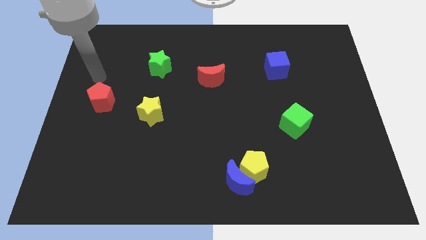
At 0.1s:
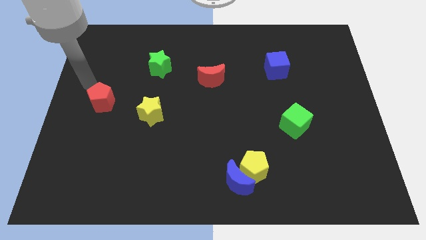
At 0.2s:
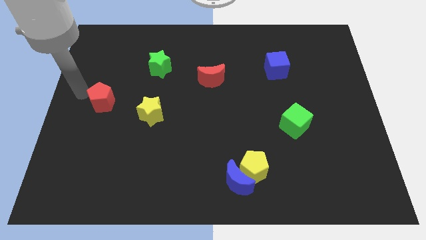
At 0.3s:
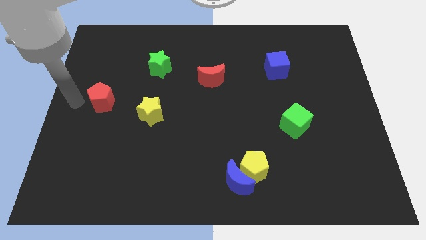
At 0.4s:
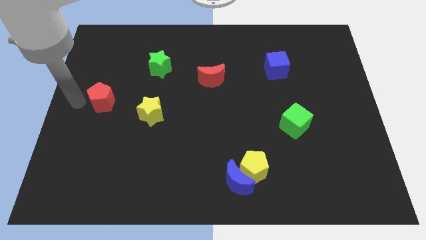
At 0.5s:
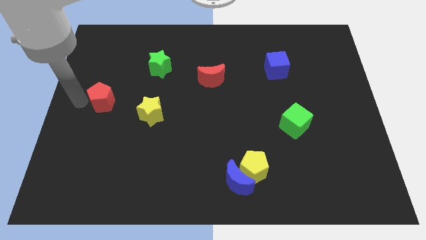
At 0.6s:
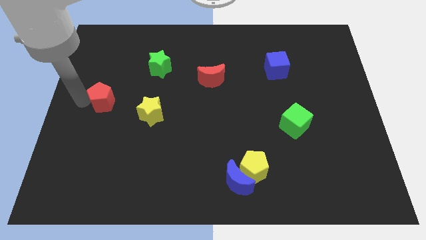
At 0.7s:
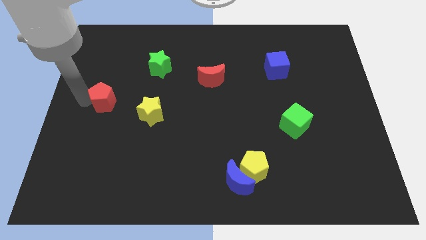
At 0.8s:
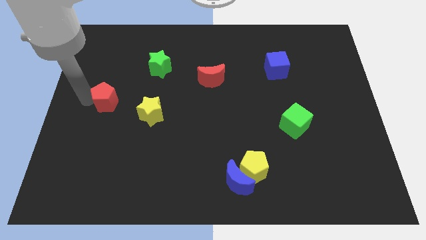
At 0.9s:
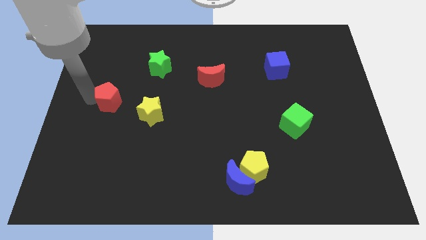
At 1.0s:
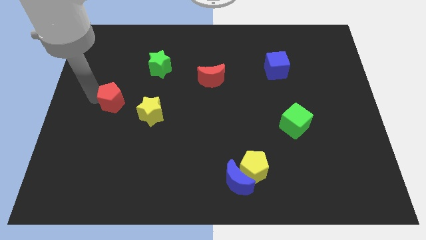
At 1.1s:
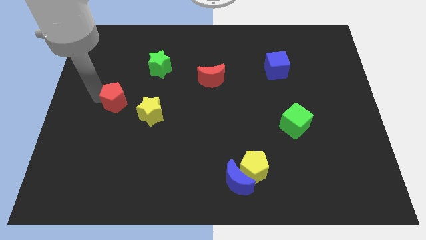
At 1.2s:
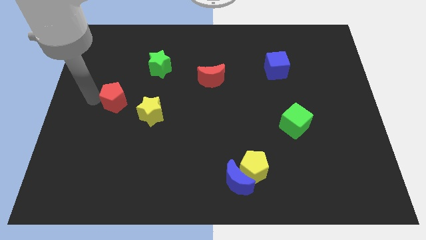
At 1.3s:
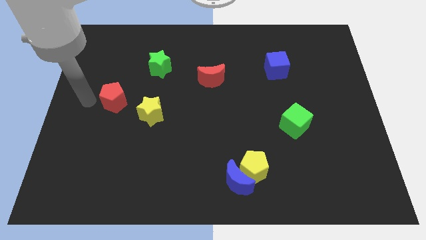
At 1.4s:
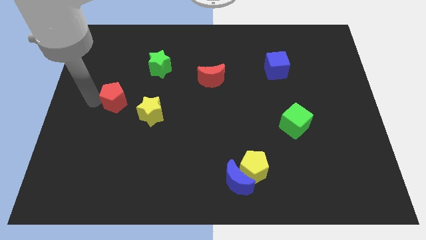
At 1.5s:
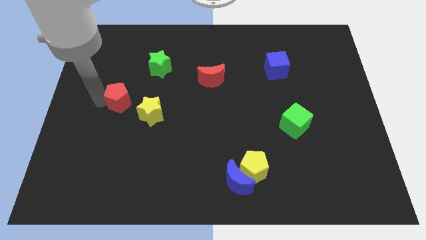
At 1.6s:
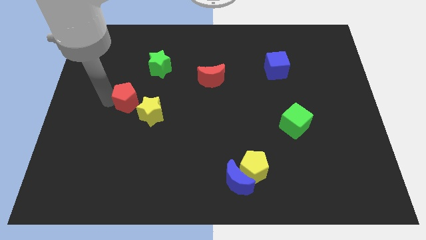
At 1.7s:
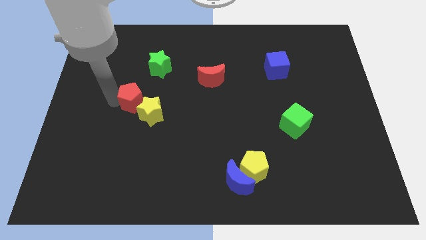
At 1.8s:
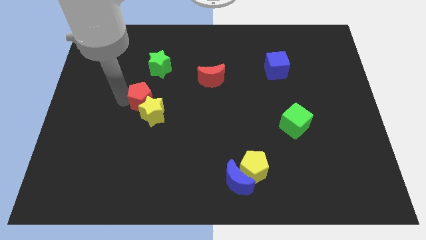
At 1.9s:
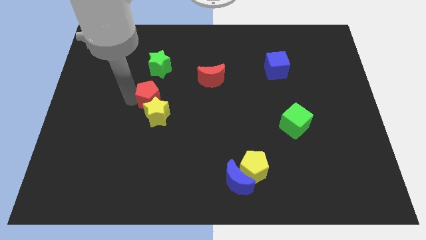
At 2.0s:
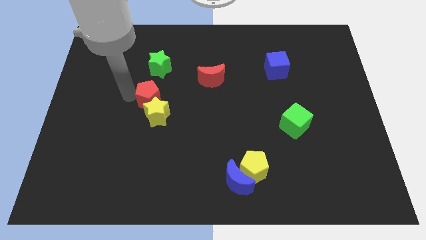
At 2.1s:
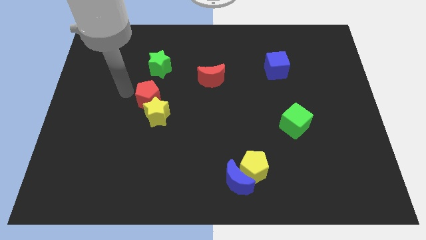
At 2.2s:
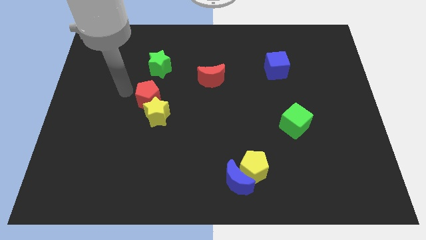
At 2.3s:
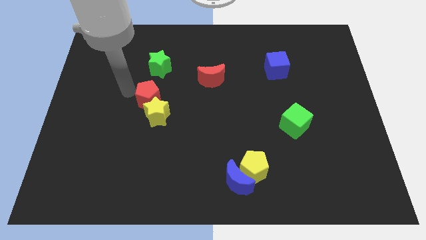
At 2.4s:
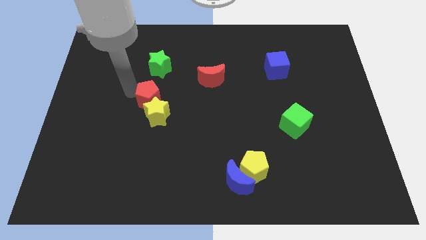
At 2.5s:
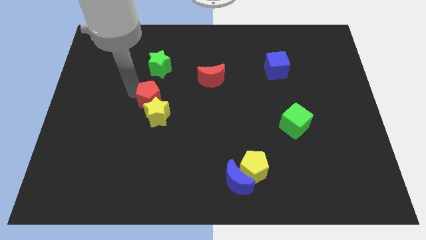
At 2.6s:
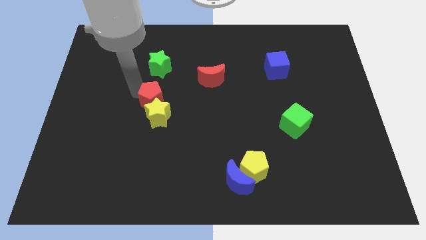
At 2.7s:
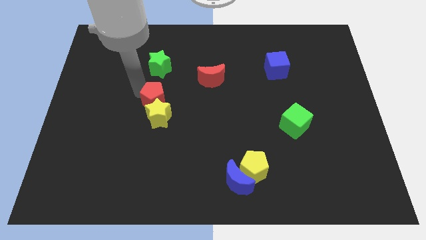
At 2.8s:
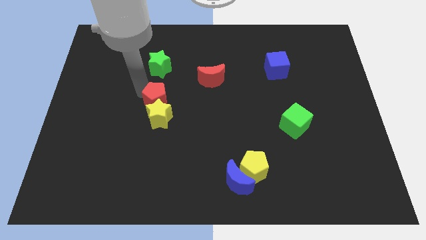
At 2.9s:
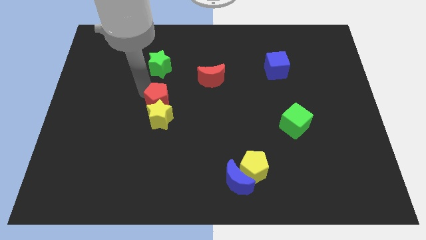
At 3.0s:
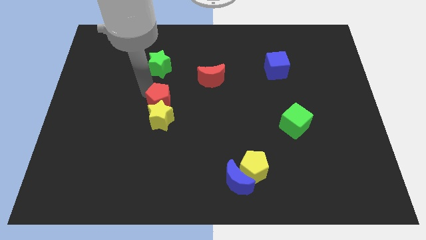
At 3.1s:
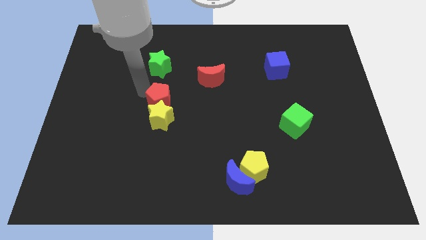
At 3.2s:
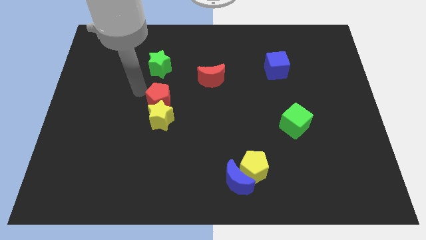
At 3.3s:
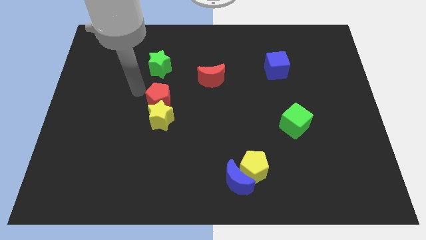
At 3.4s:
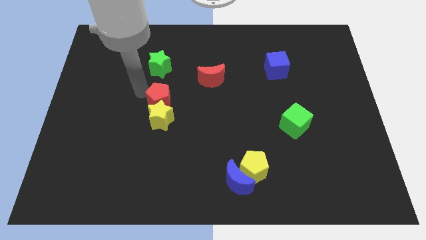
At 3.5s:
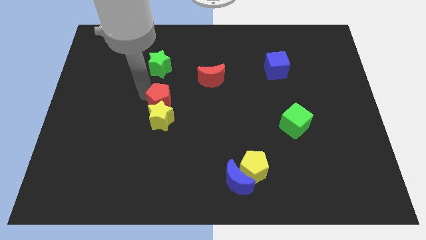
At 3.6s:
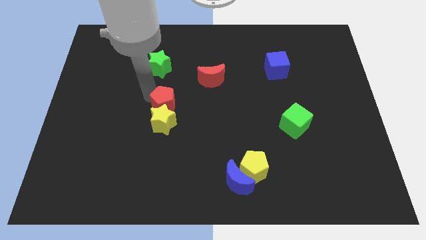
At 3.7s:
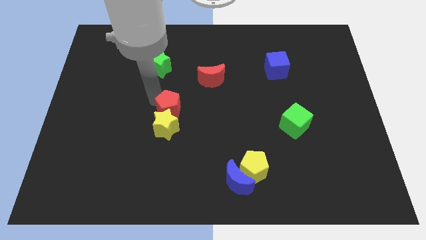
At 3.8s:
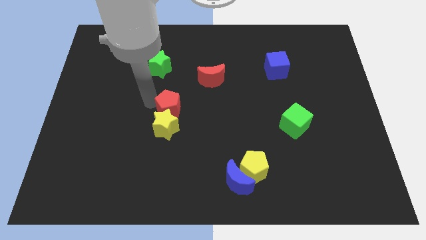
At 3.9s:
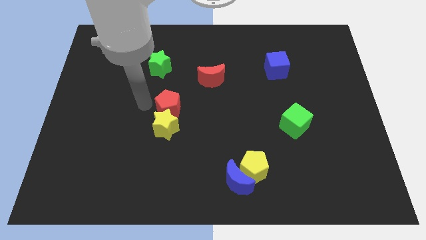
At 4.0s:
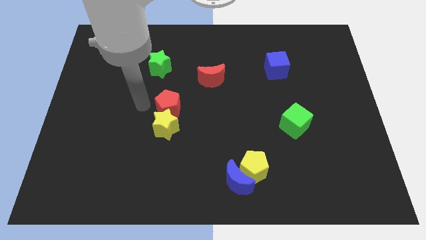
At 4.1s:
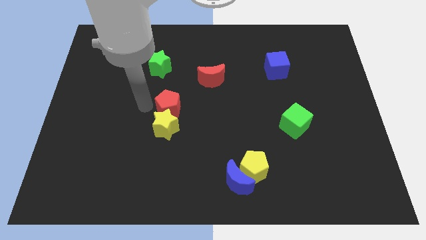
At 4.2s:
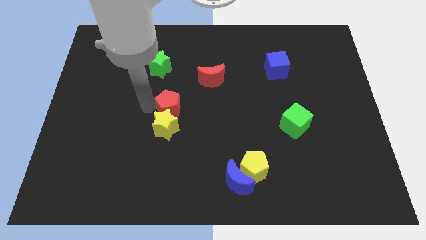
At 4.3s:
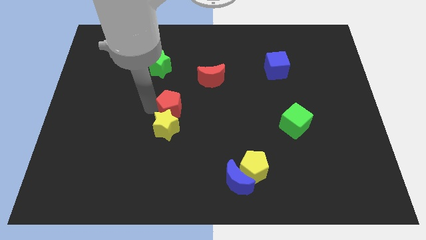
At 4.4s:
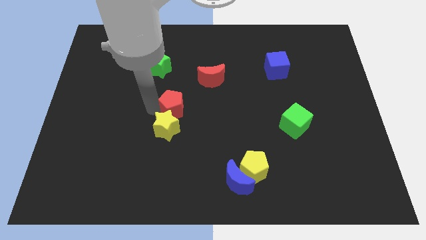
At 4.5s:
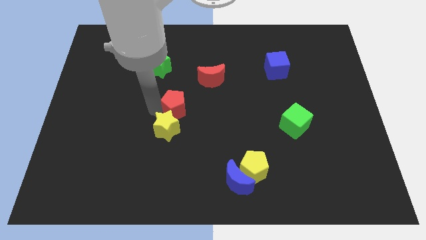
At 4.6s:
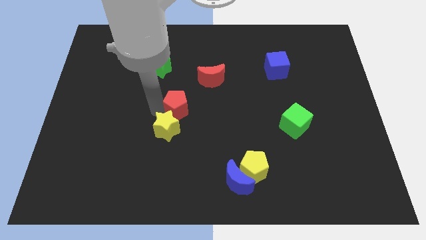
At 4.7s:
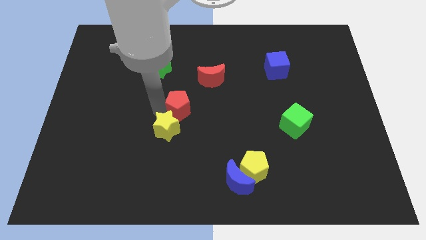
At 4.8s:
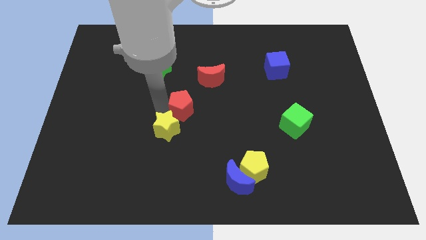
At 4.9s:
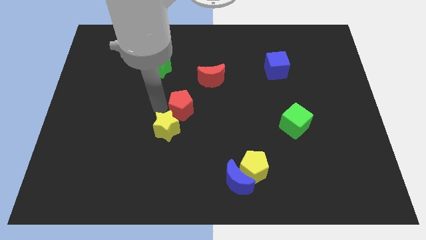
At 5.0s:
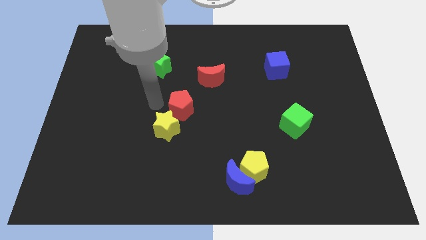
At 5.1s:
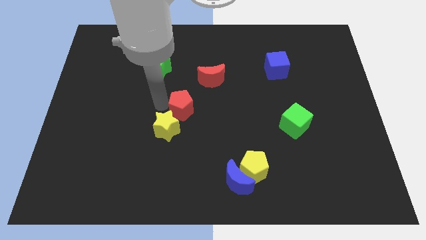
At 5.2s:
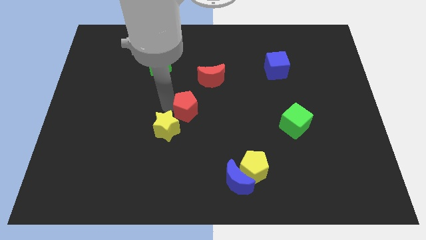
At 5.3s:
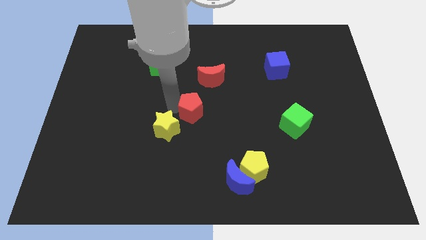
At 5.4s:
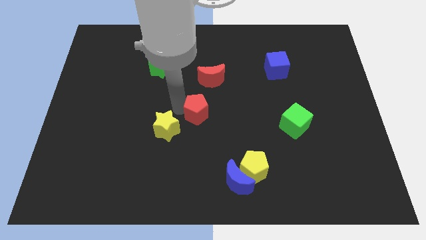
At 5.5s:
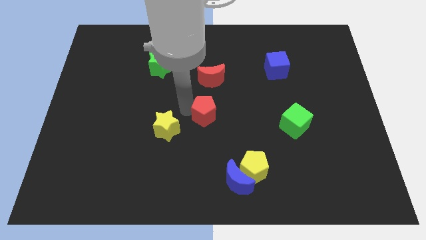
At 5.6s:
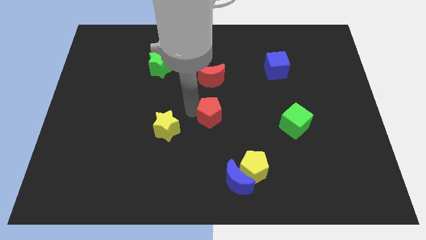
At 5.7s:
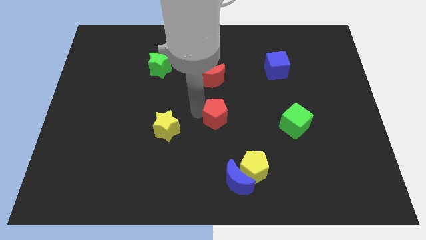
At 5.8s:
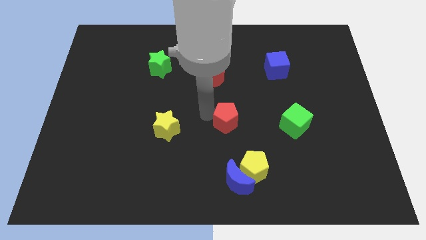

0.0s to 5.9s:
move the red pentagon to the left side of the green cube
